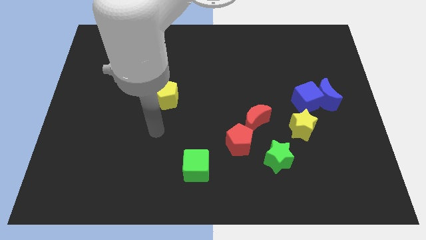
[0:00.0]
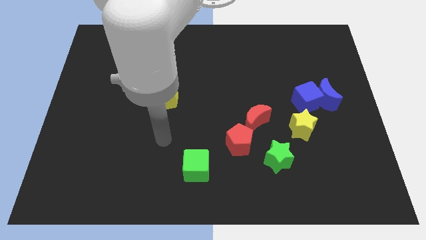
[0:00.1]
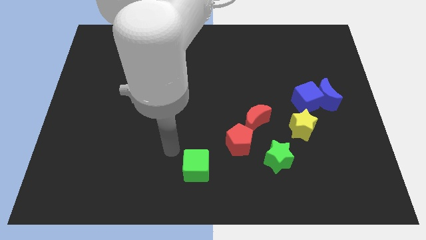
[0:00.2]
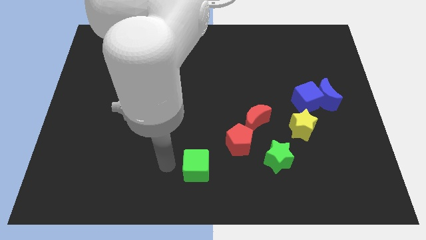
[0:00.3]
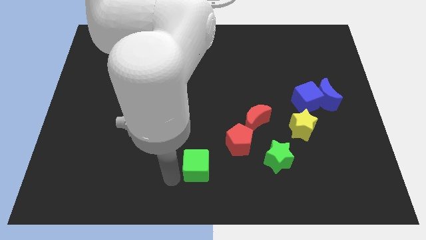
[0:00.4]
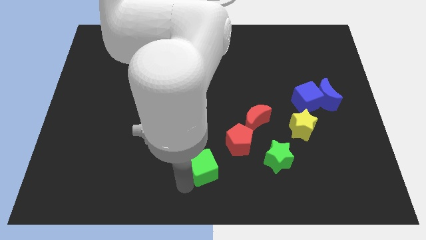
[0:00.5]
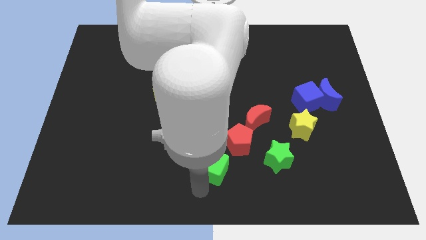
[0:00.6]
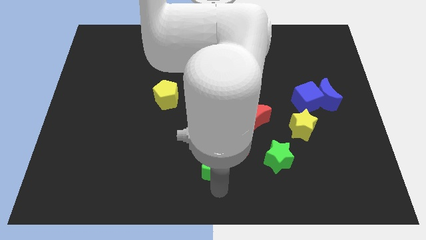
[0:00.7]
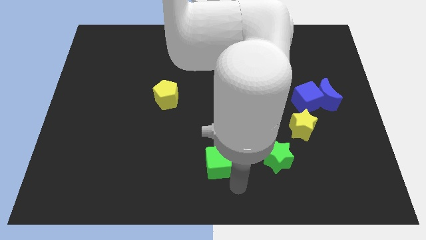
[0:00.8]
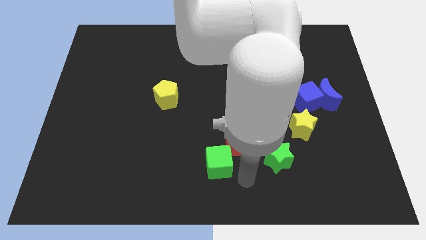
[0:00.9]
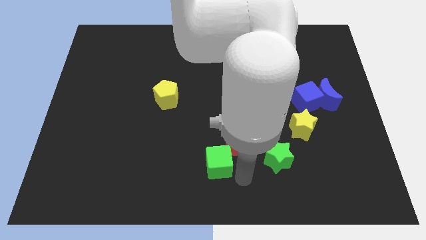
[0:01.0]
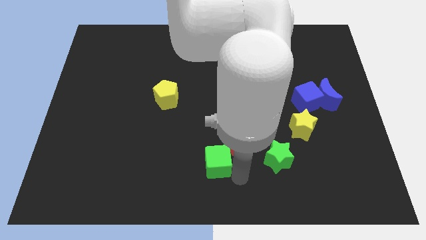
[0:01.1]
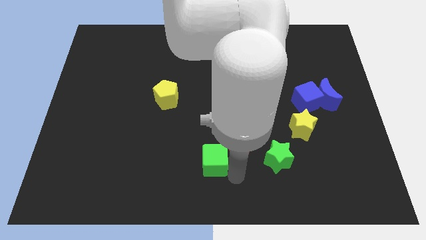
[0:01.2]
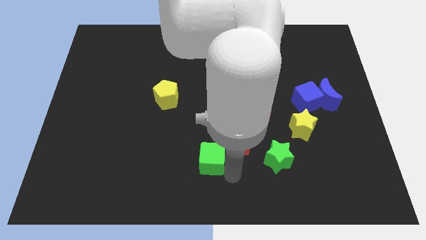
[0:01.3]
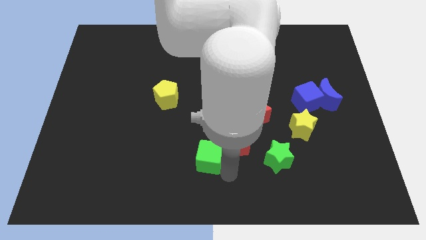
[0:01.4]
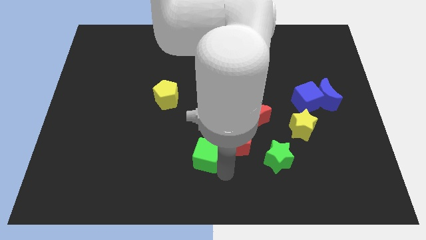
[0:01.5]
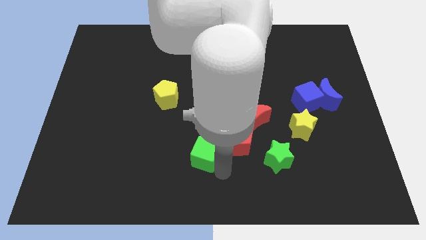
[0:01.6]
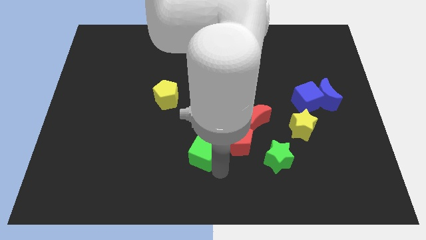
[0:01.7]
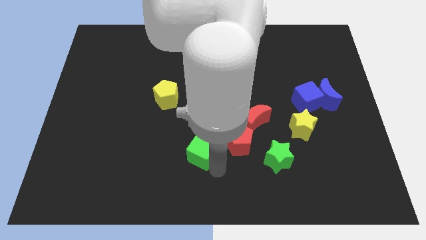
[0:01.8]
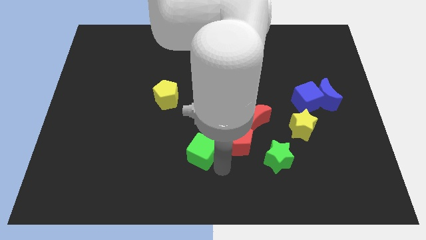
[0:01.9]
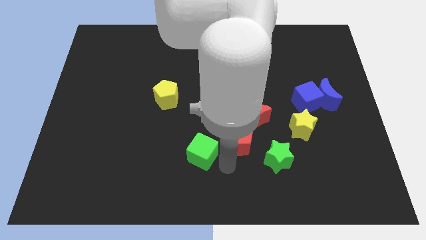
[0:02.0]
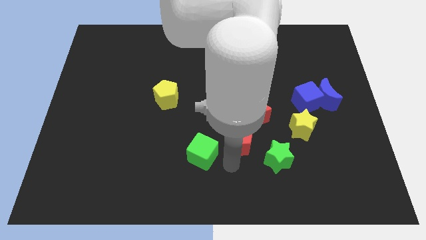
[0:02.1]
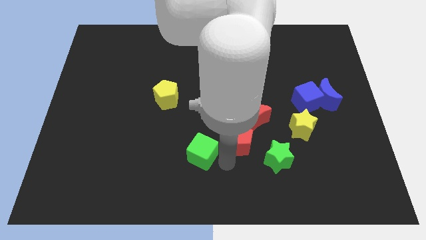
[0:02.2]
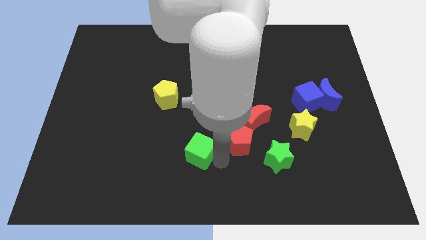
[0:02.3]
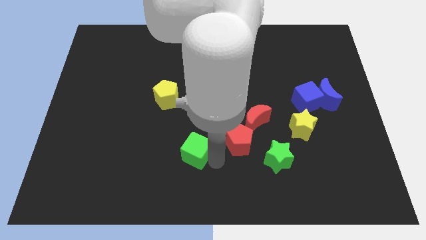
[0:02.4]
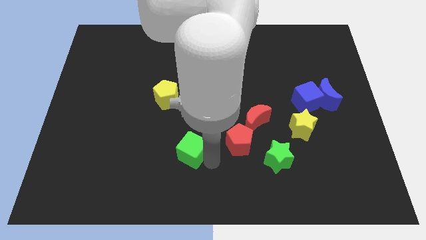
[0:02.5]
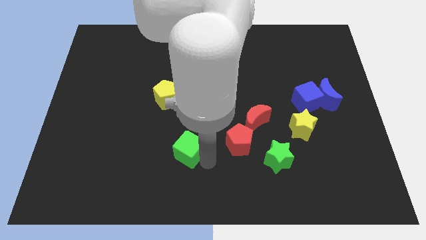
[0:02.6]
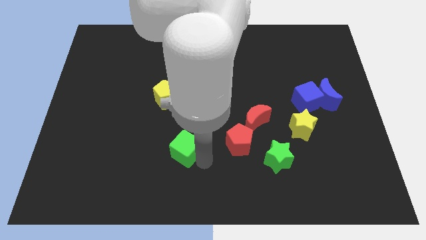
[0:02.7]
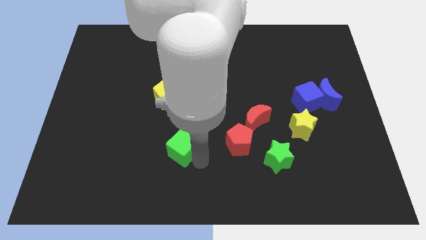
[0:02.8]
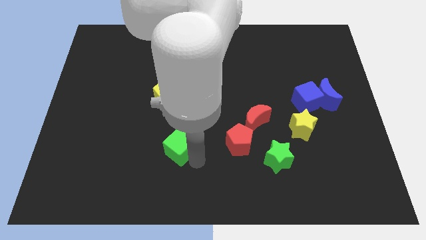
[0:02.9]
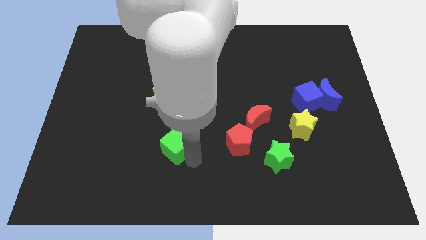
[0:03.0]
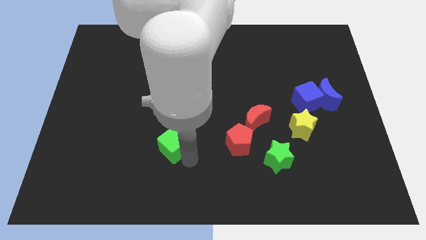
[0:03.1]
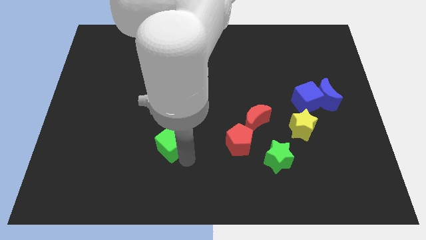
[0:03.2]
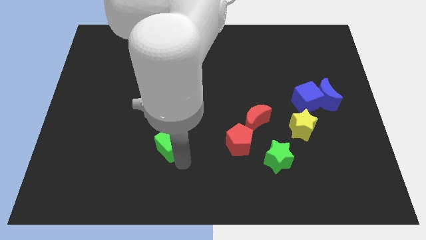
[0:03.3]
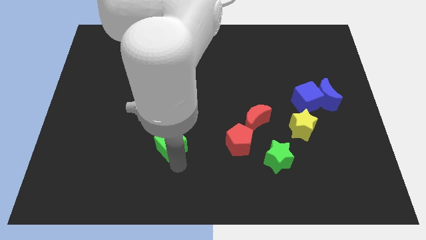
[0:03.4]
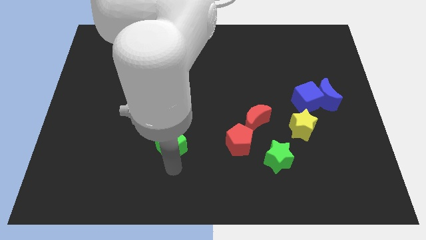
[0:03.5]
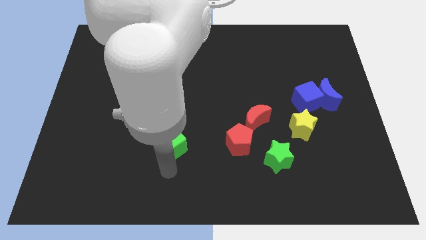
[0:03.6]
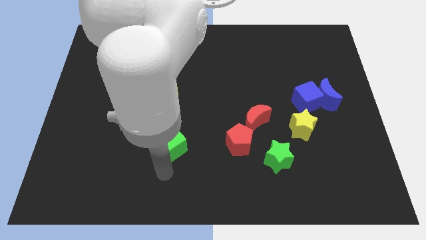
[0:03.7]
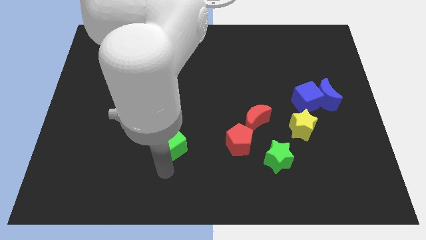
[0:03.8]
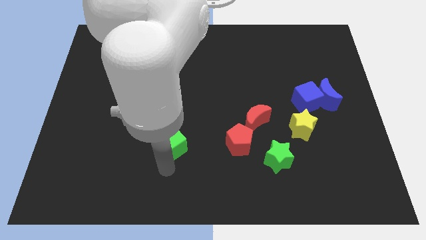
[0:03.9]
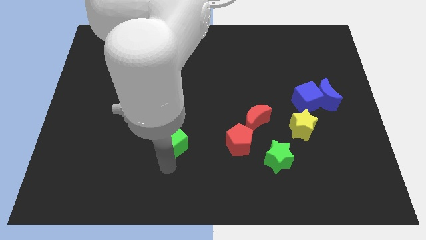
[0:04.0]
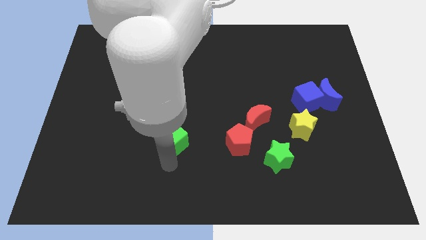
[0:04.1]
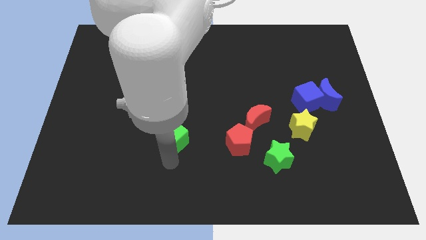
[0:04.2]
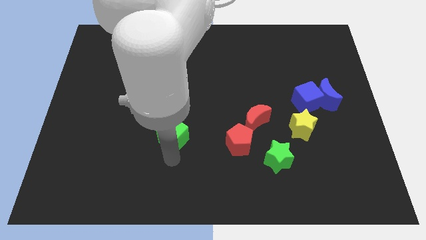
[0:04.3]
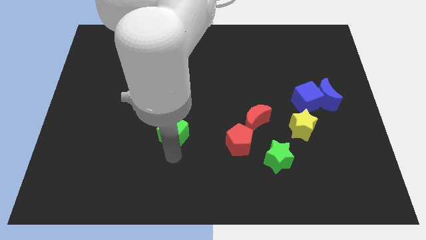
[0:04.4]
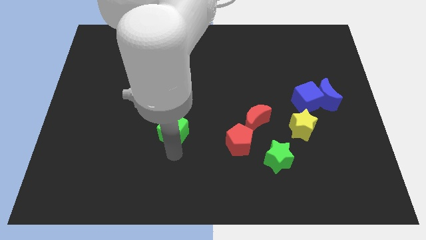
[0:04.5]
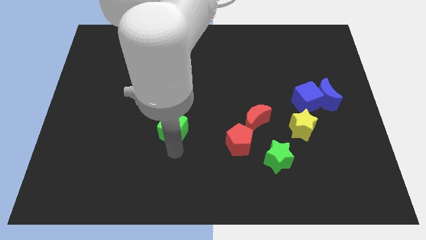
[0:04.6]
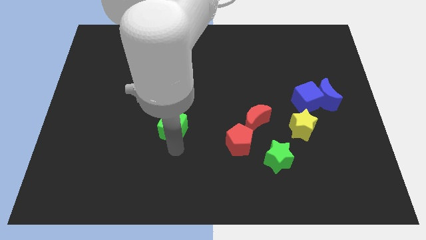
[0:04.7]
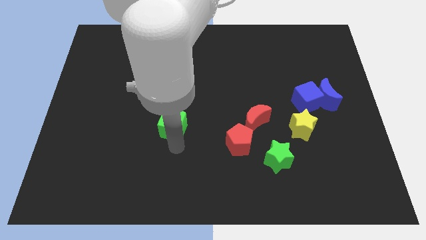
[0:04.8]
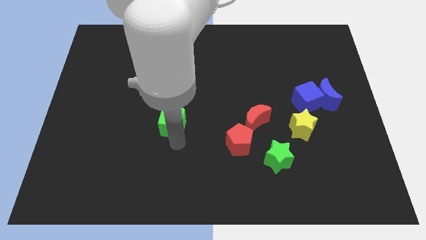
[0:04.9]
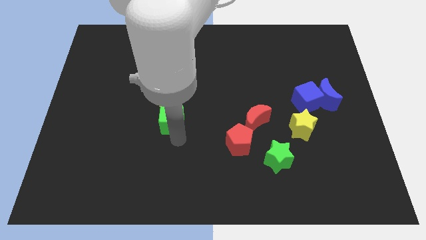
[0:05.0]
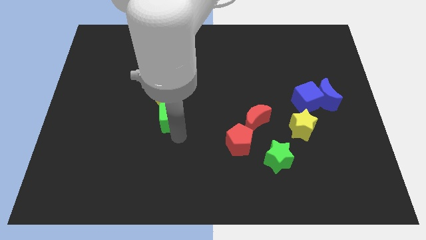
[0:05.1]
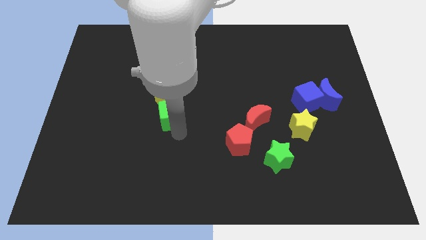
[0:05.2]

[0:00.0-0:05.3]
push the green cube next to the yellow pentagon
